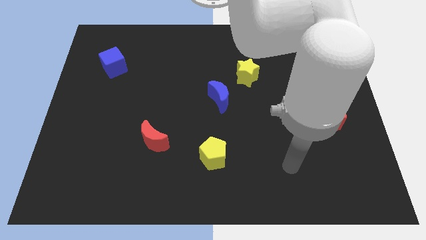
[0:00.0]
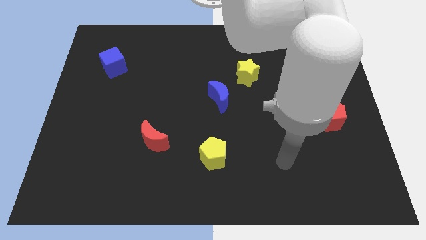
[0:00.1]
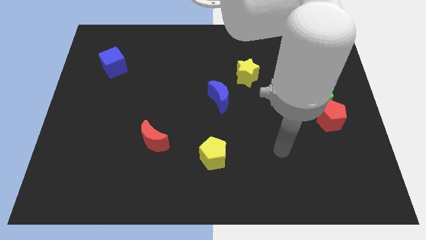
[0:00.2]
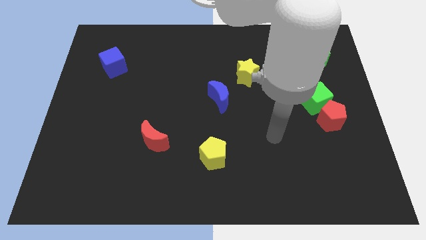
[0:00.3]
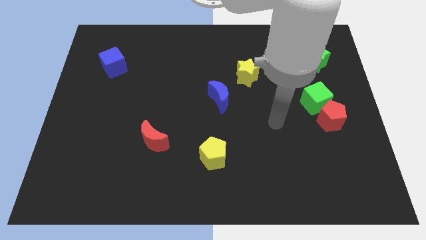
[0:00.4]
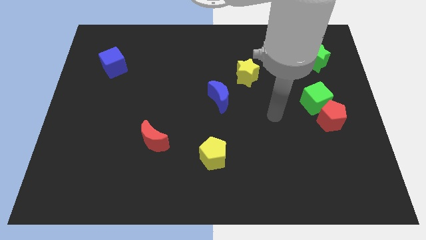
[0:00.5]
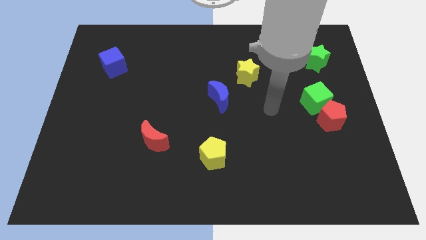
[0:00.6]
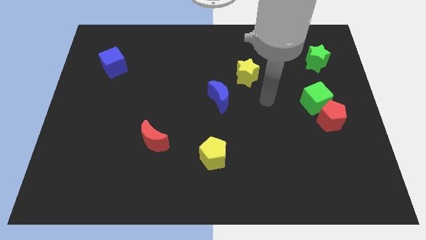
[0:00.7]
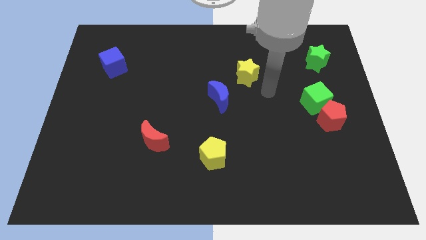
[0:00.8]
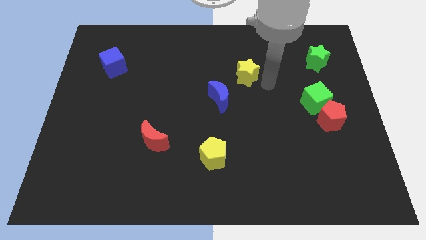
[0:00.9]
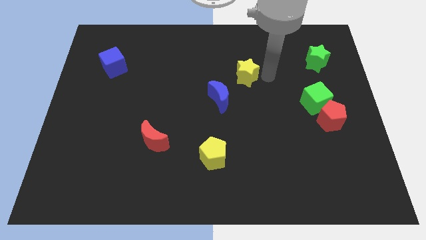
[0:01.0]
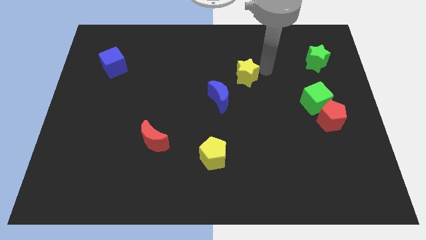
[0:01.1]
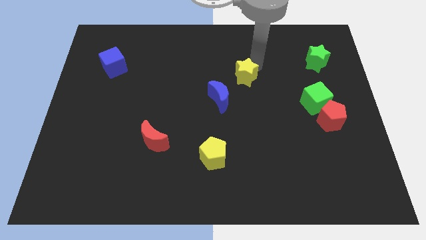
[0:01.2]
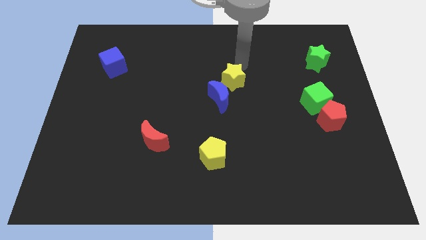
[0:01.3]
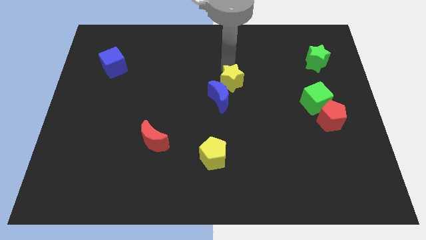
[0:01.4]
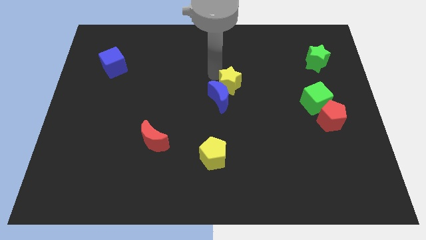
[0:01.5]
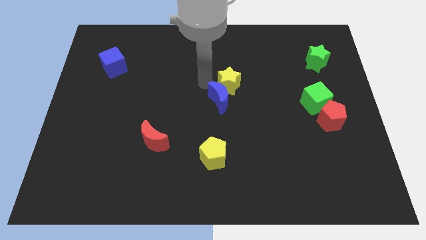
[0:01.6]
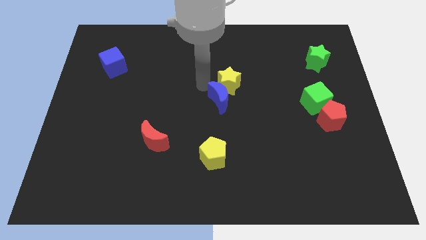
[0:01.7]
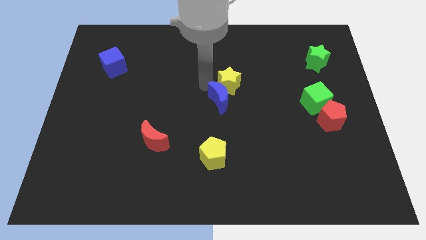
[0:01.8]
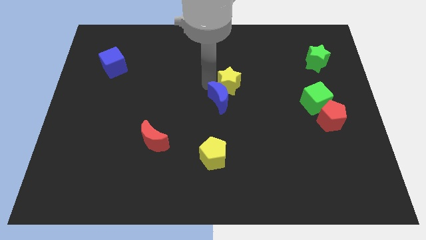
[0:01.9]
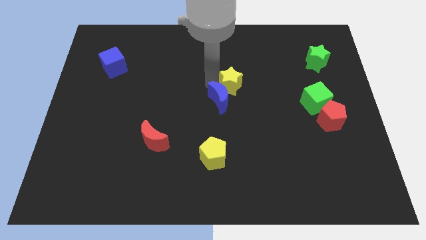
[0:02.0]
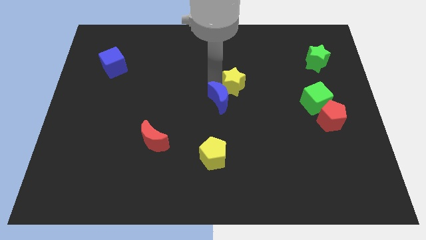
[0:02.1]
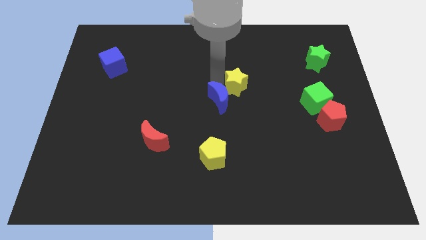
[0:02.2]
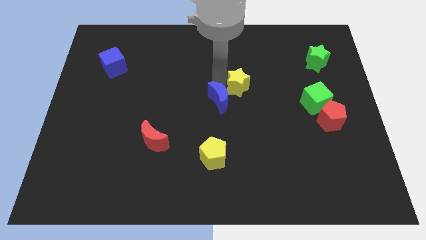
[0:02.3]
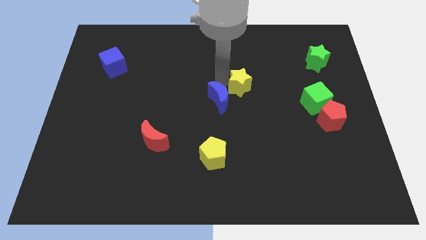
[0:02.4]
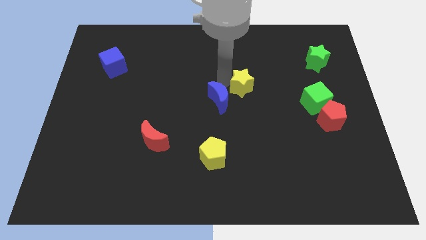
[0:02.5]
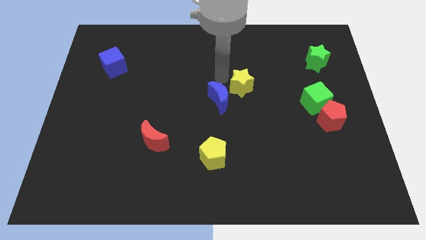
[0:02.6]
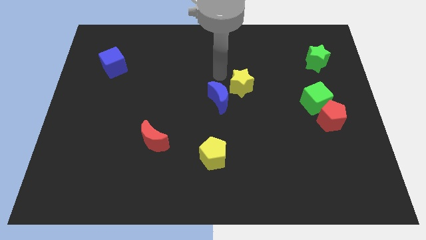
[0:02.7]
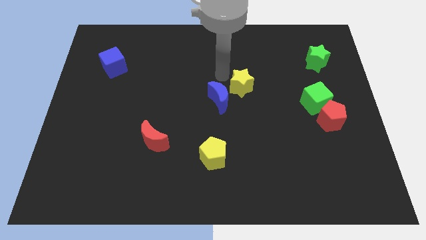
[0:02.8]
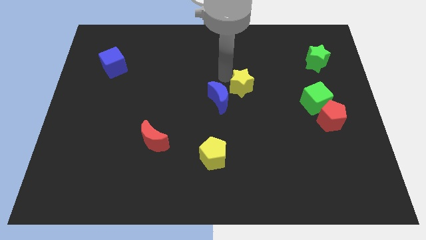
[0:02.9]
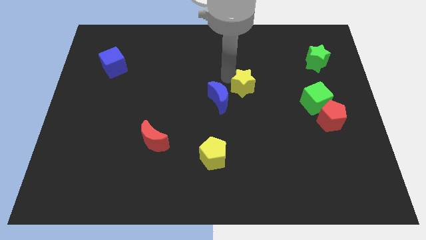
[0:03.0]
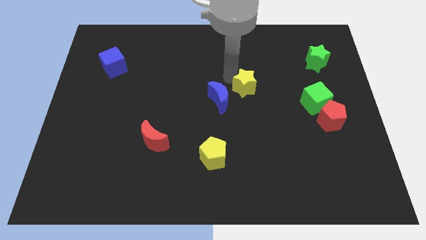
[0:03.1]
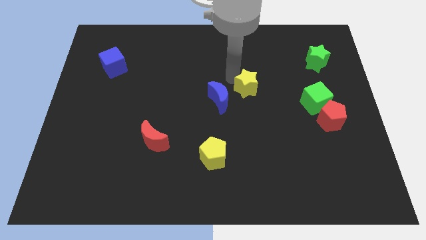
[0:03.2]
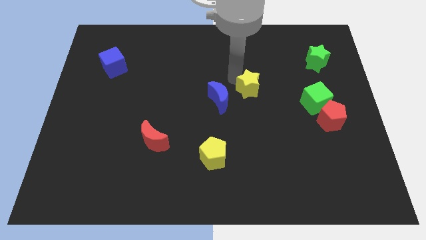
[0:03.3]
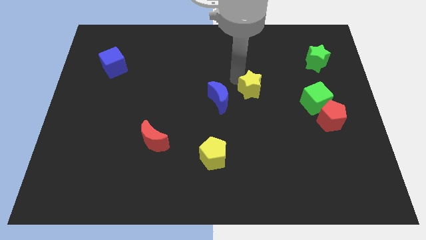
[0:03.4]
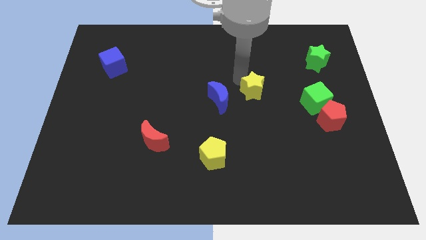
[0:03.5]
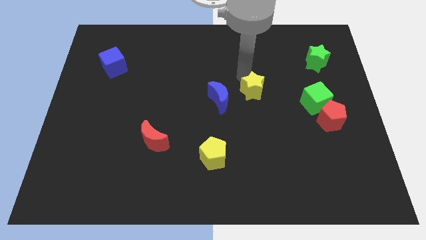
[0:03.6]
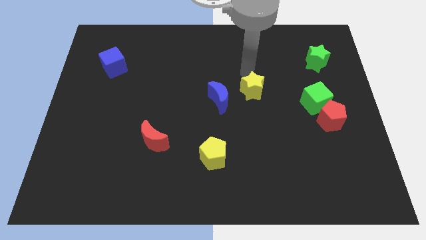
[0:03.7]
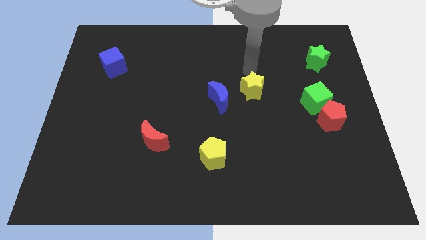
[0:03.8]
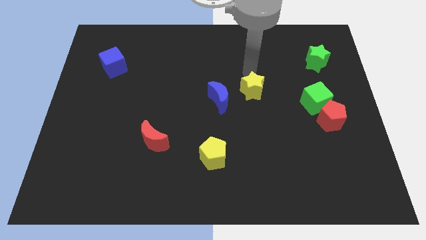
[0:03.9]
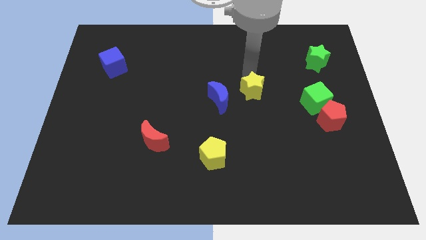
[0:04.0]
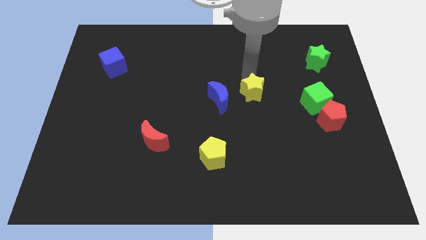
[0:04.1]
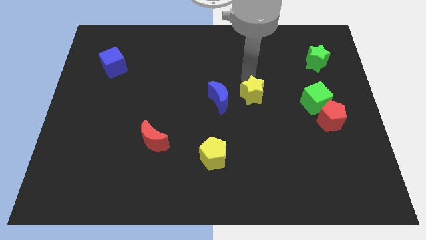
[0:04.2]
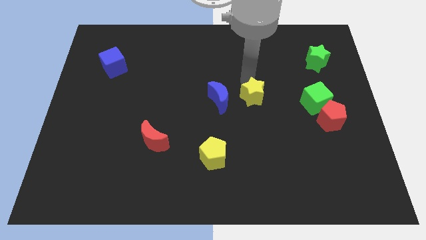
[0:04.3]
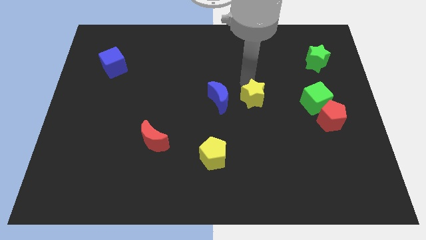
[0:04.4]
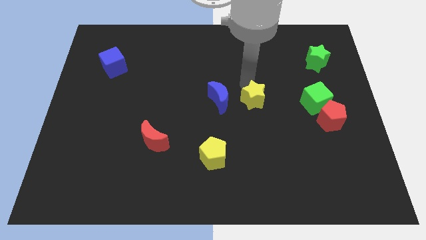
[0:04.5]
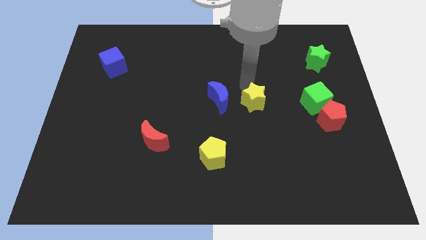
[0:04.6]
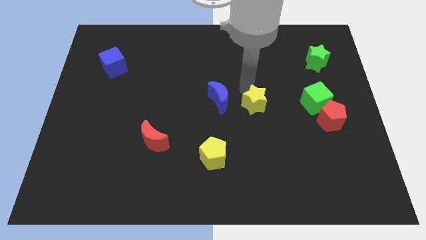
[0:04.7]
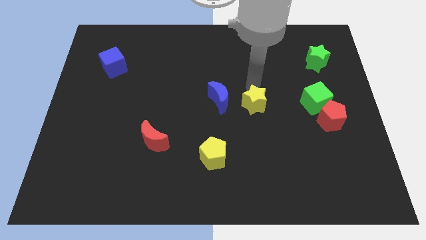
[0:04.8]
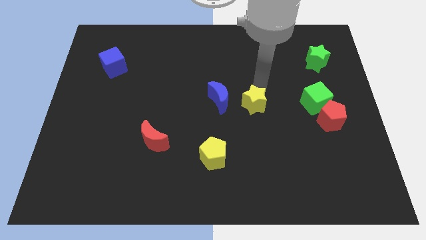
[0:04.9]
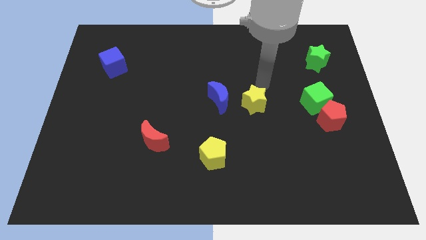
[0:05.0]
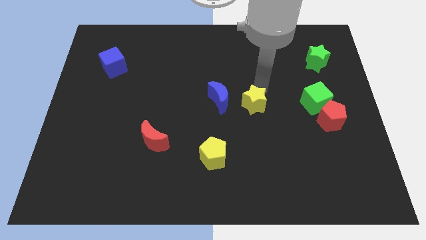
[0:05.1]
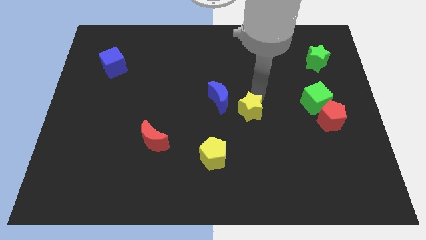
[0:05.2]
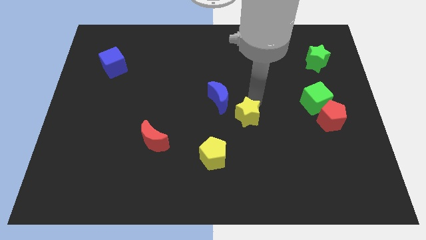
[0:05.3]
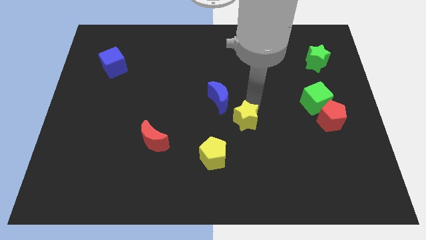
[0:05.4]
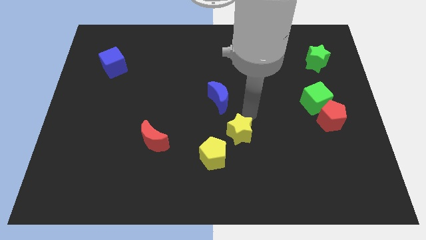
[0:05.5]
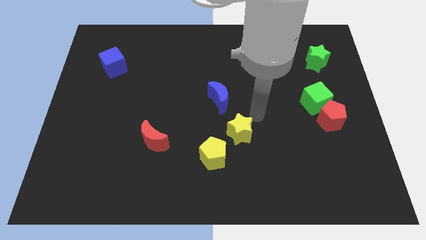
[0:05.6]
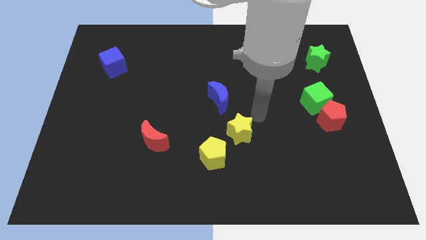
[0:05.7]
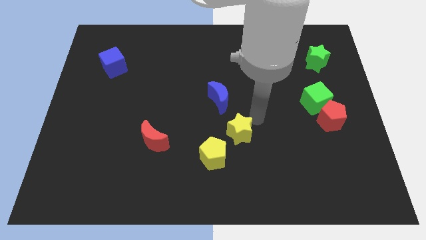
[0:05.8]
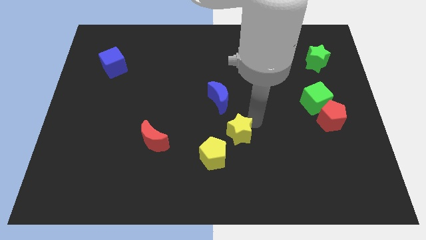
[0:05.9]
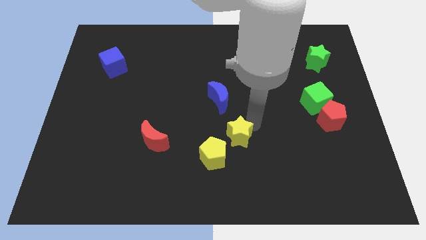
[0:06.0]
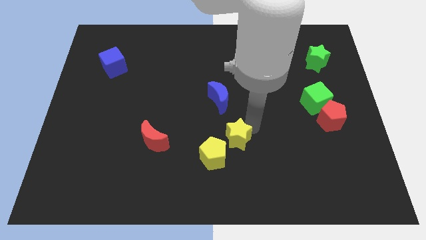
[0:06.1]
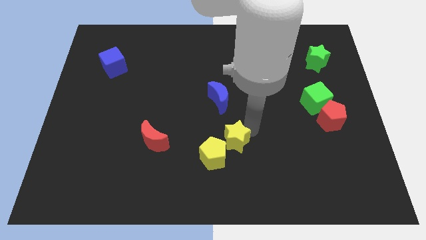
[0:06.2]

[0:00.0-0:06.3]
put the yellow star close to the yellow pentagon

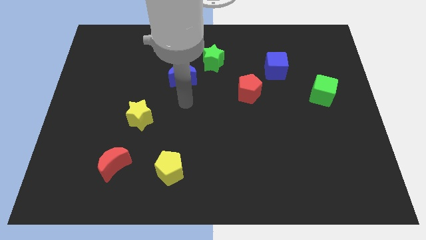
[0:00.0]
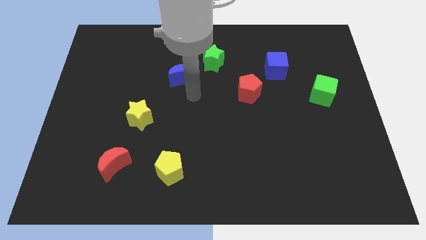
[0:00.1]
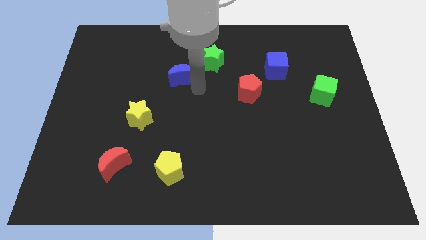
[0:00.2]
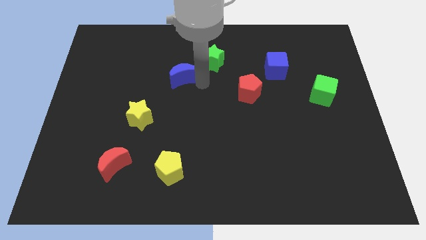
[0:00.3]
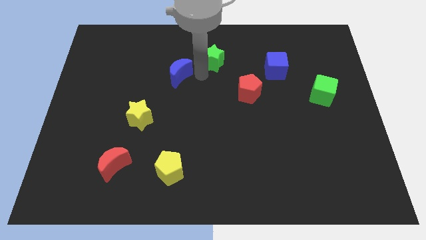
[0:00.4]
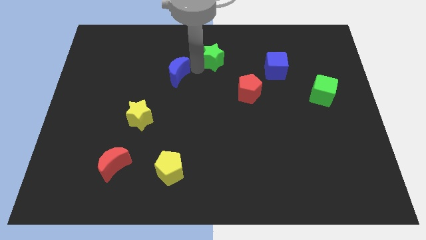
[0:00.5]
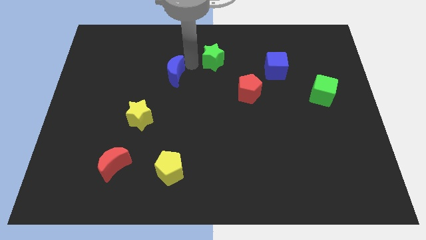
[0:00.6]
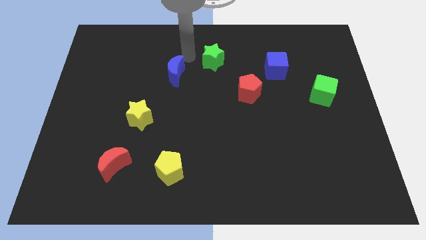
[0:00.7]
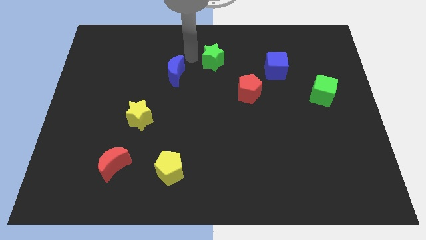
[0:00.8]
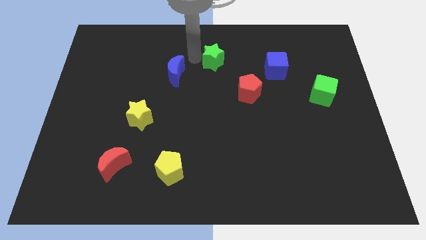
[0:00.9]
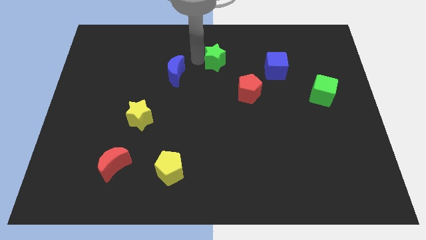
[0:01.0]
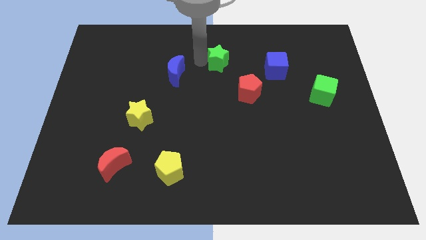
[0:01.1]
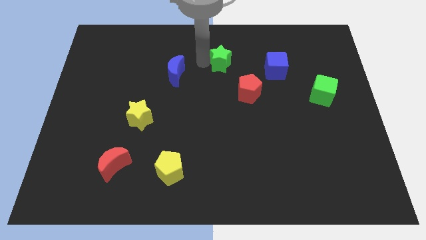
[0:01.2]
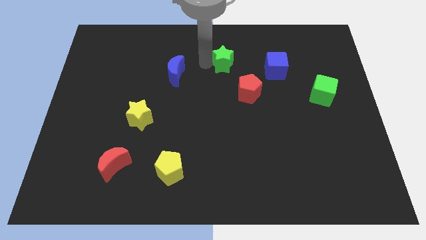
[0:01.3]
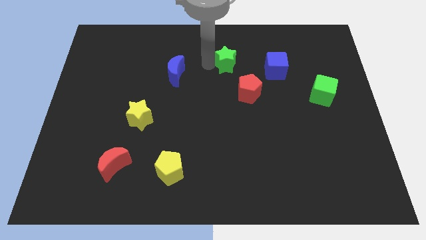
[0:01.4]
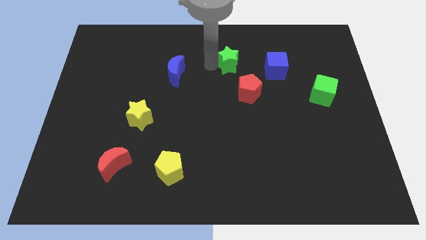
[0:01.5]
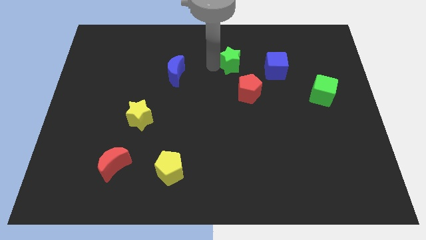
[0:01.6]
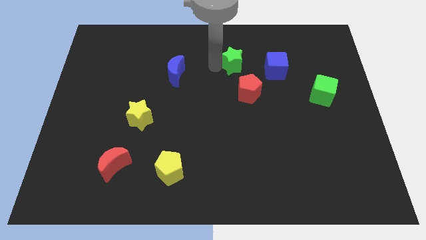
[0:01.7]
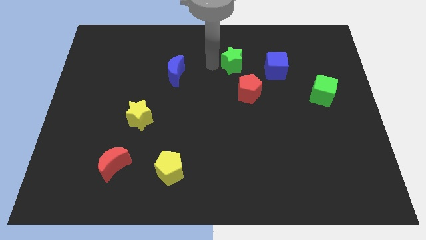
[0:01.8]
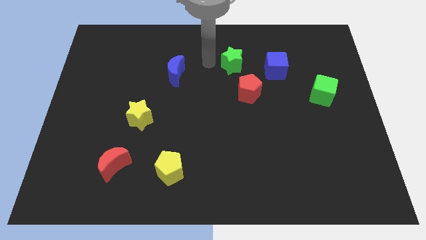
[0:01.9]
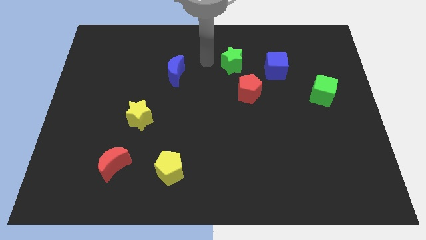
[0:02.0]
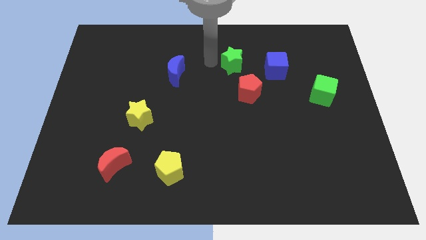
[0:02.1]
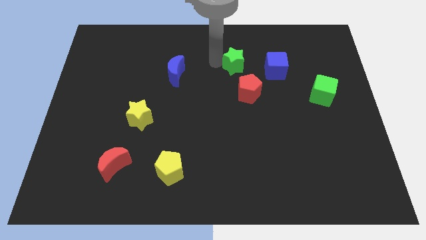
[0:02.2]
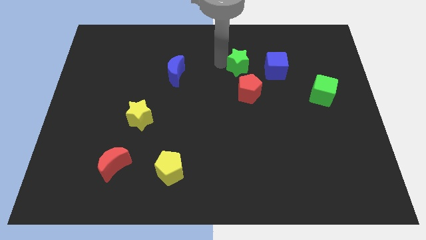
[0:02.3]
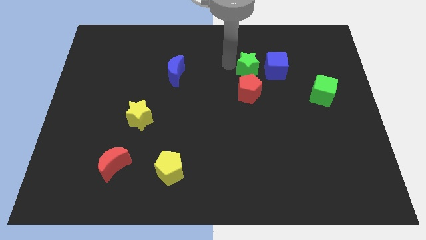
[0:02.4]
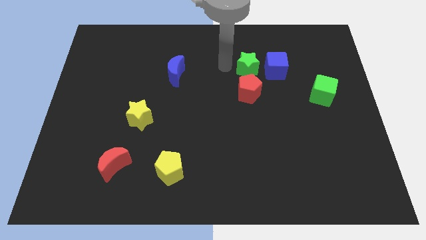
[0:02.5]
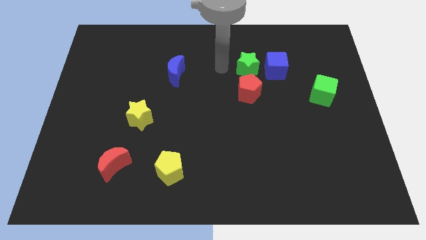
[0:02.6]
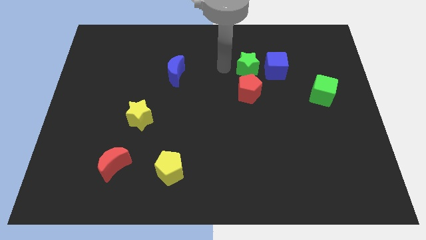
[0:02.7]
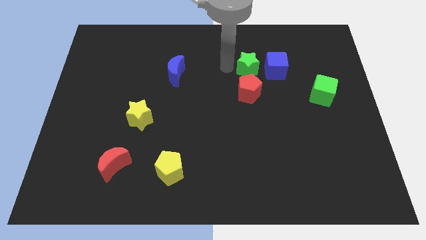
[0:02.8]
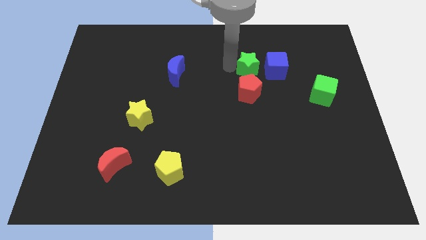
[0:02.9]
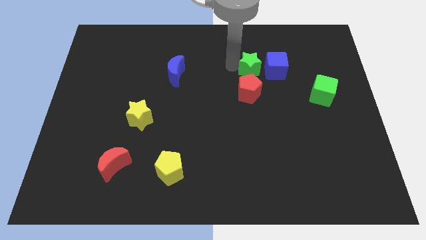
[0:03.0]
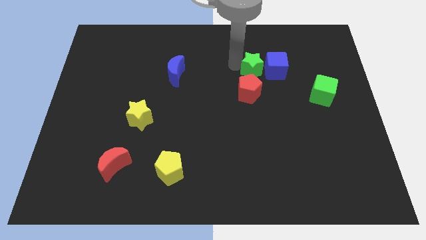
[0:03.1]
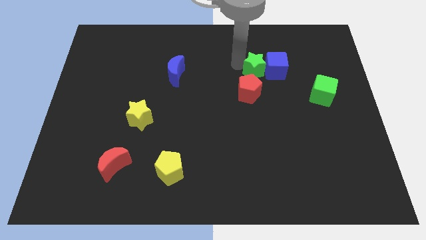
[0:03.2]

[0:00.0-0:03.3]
slide the green star next to the blue cube
